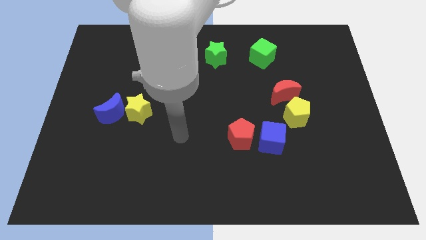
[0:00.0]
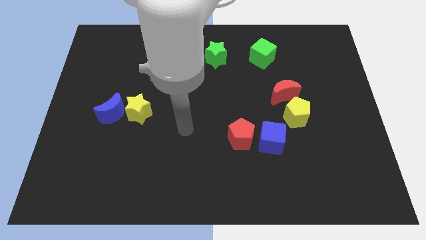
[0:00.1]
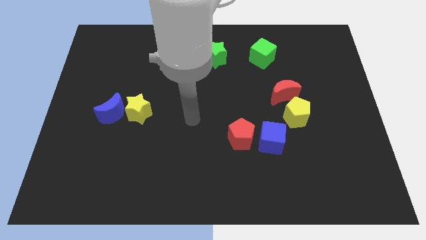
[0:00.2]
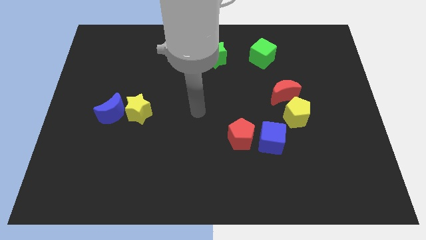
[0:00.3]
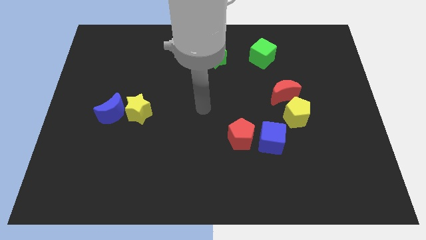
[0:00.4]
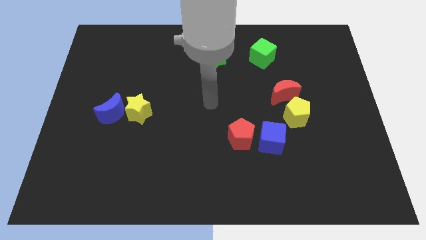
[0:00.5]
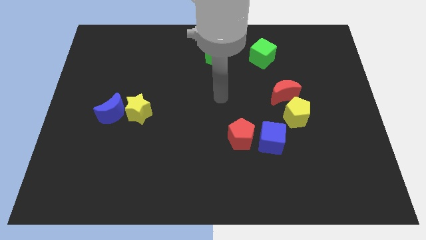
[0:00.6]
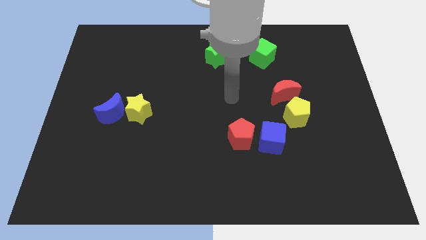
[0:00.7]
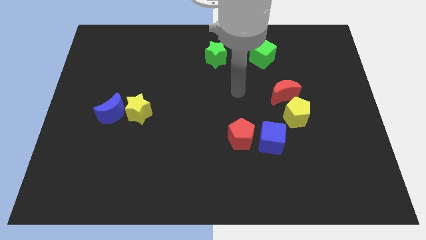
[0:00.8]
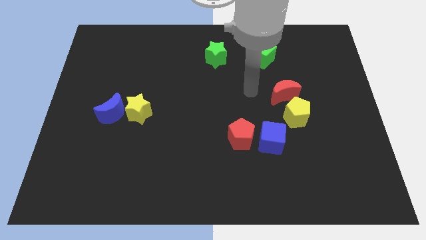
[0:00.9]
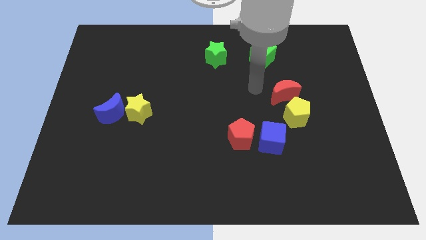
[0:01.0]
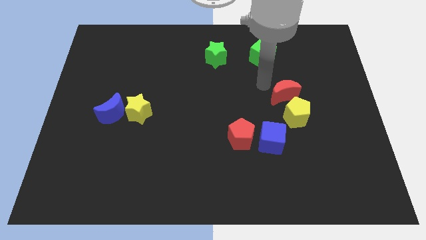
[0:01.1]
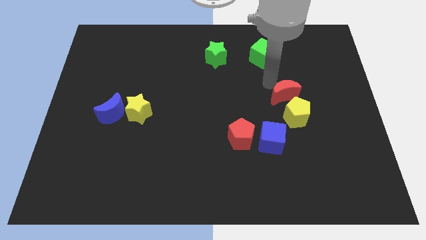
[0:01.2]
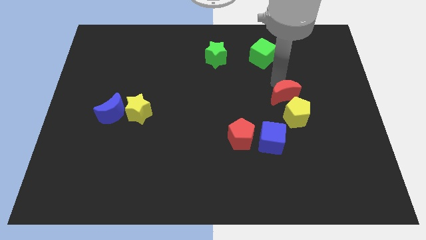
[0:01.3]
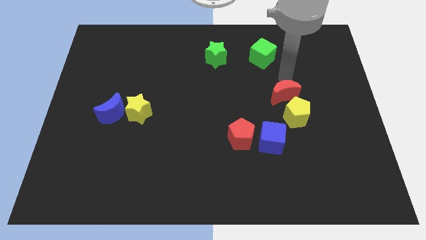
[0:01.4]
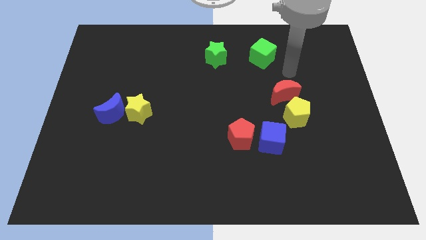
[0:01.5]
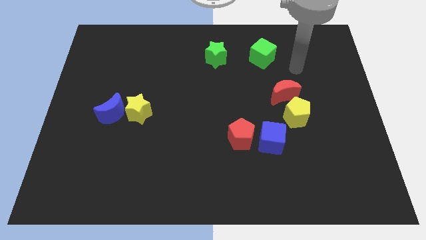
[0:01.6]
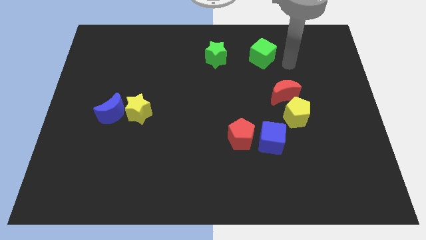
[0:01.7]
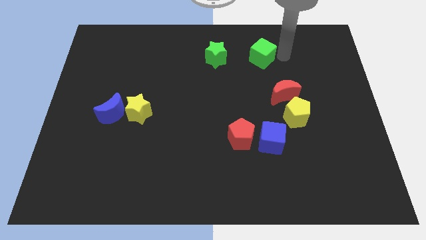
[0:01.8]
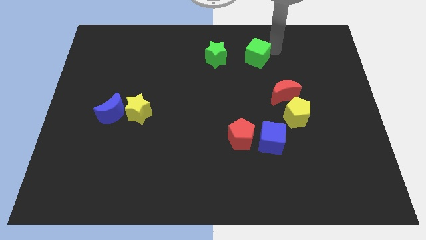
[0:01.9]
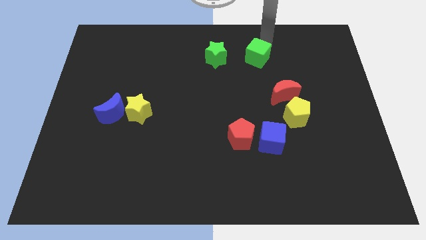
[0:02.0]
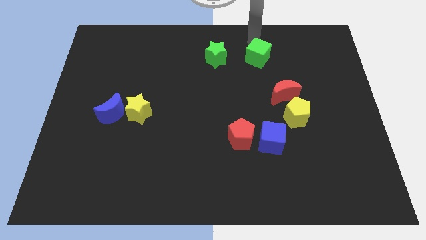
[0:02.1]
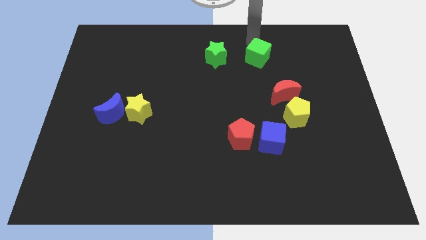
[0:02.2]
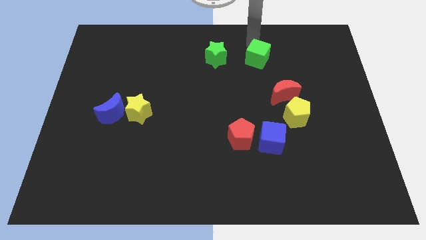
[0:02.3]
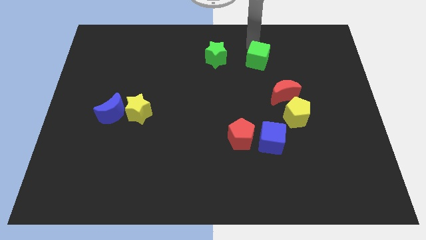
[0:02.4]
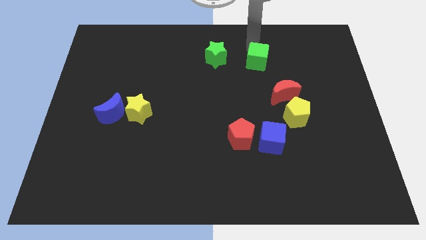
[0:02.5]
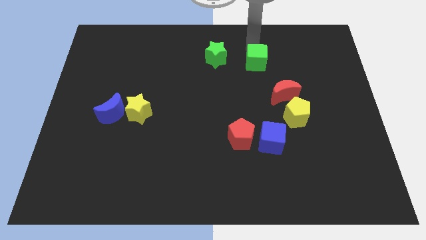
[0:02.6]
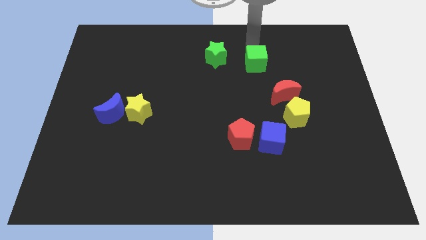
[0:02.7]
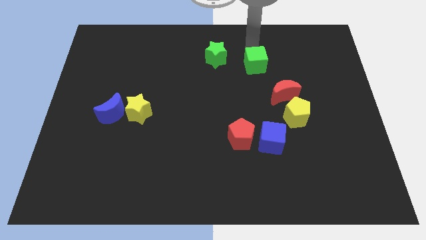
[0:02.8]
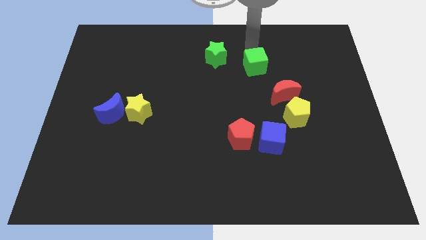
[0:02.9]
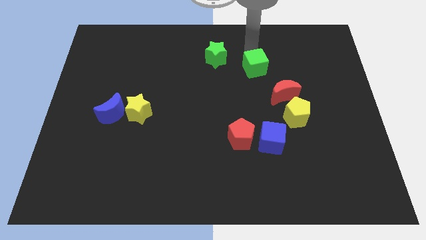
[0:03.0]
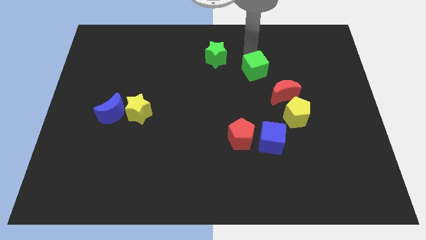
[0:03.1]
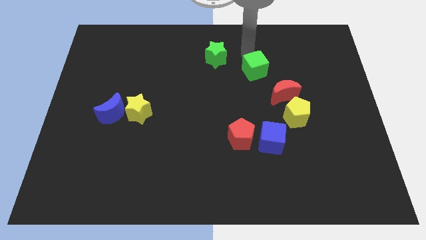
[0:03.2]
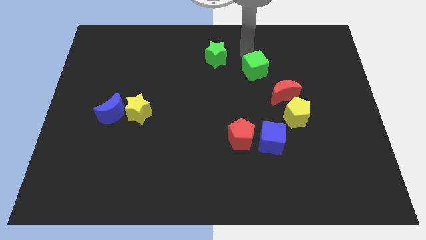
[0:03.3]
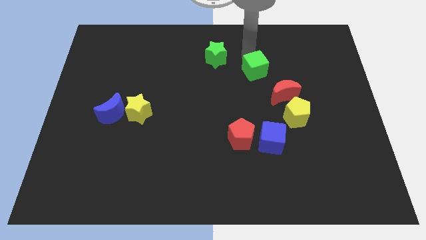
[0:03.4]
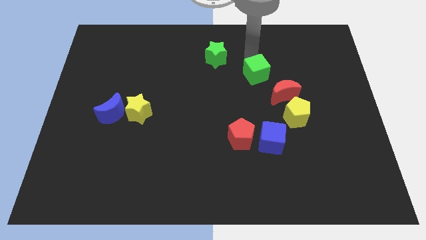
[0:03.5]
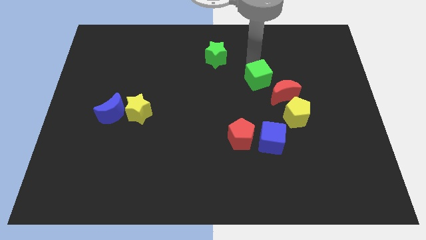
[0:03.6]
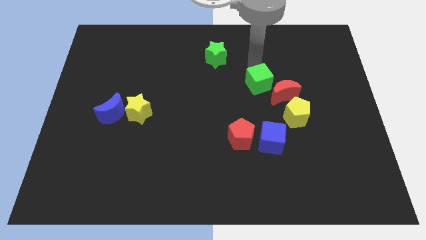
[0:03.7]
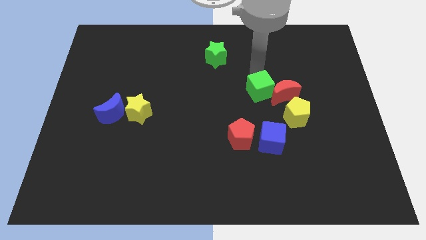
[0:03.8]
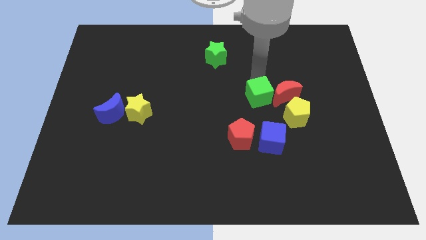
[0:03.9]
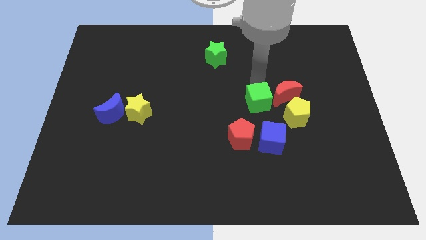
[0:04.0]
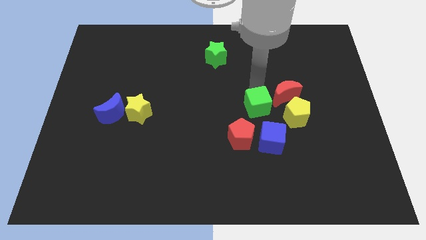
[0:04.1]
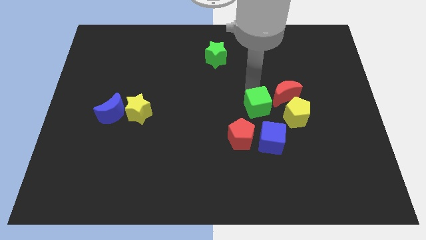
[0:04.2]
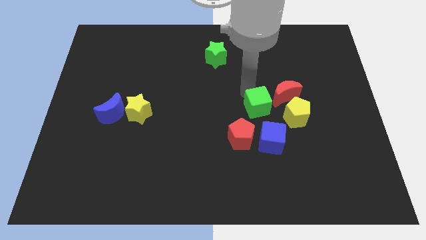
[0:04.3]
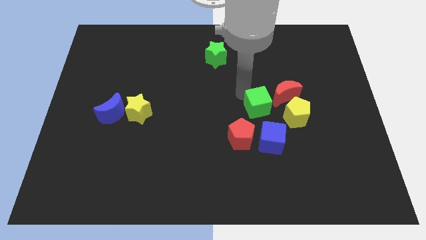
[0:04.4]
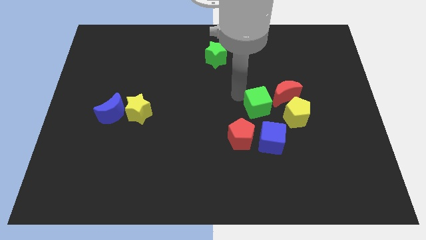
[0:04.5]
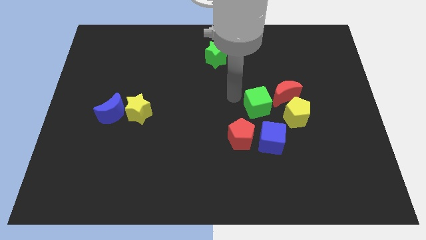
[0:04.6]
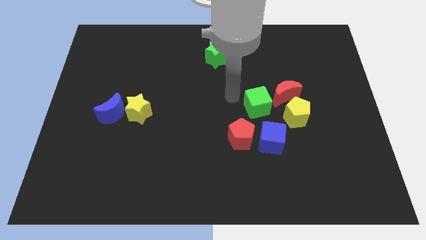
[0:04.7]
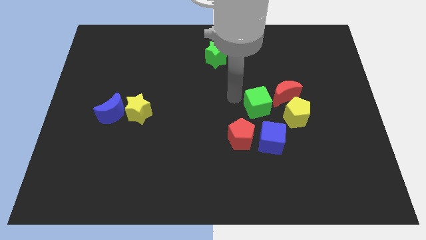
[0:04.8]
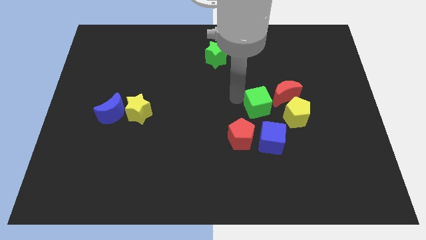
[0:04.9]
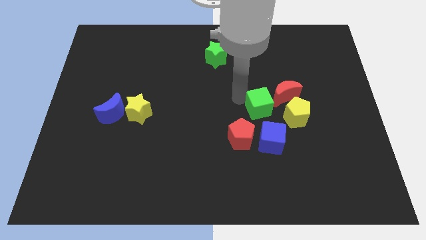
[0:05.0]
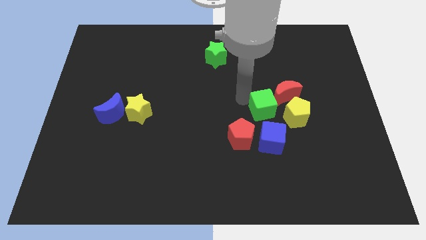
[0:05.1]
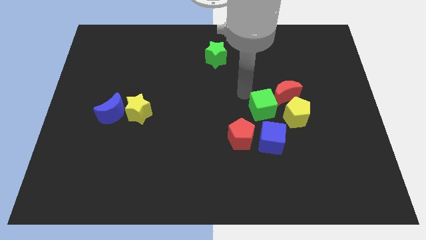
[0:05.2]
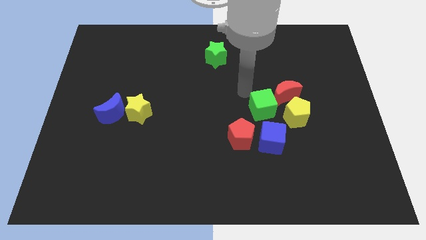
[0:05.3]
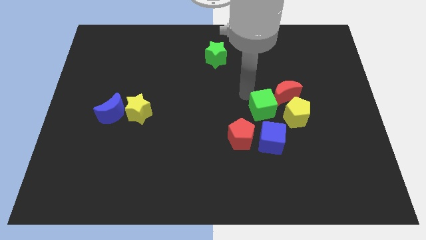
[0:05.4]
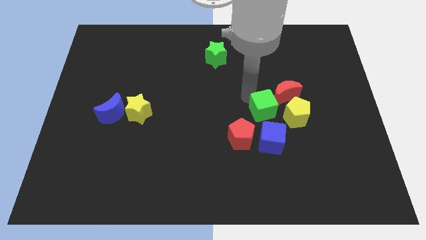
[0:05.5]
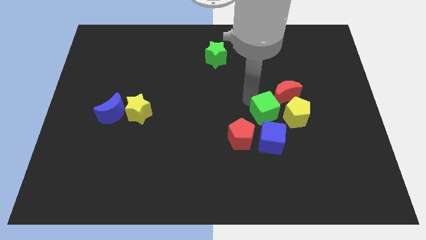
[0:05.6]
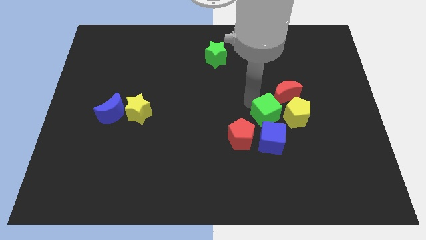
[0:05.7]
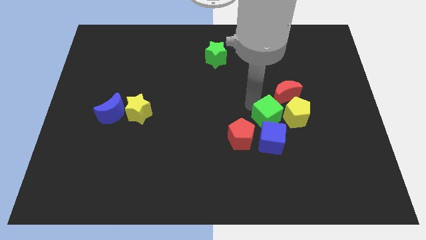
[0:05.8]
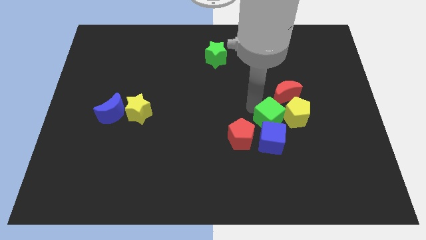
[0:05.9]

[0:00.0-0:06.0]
move the green cube down

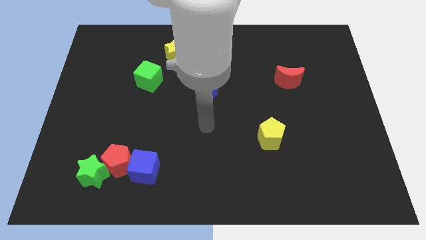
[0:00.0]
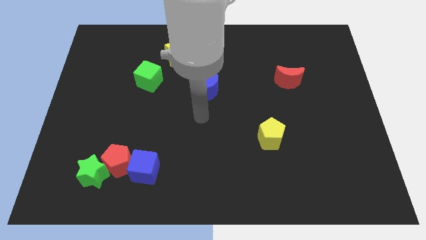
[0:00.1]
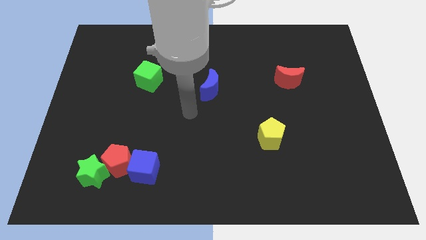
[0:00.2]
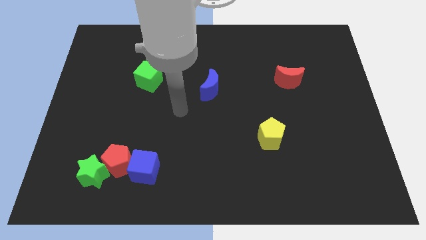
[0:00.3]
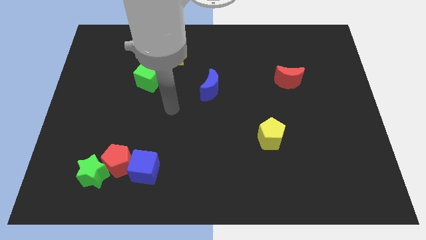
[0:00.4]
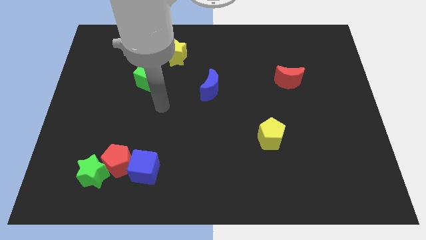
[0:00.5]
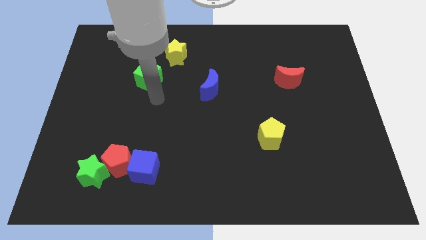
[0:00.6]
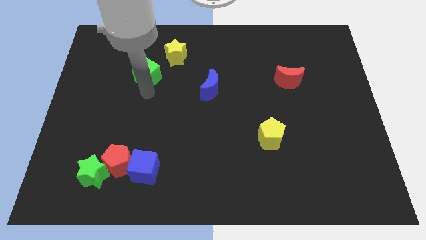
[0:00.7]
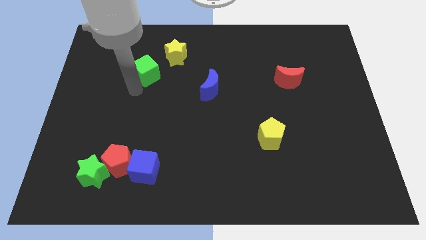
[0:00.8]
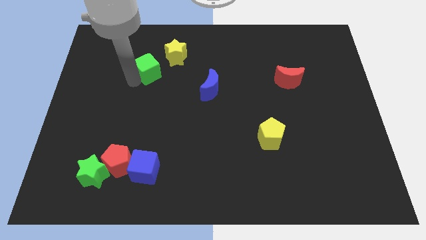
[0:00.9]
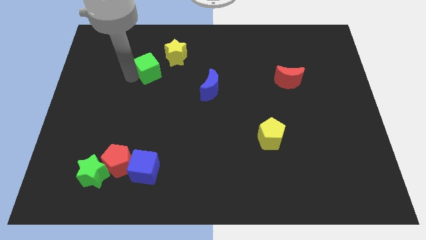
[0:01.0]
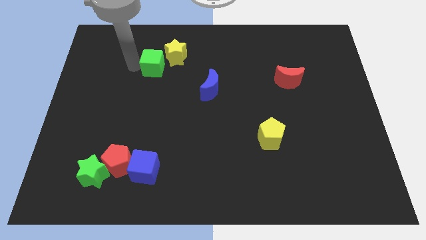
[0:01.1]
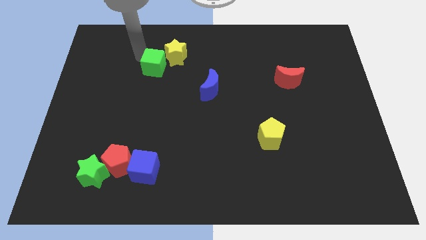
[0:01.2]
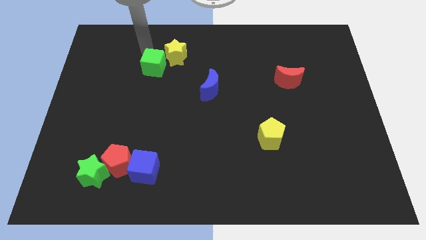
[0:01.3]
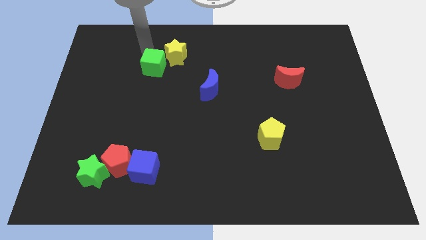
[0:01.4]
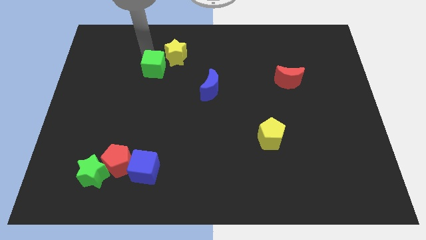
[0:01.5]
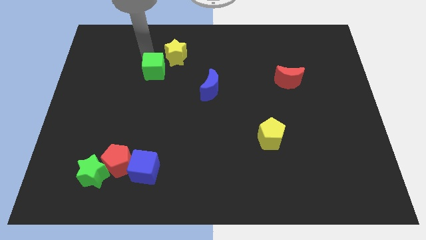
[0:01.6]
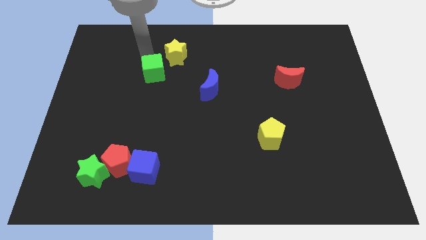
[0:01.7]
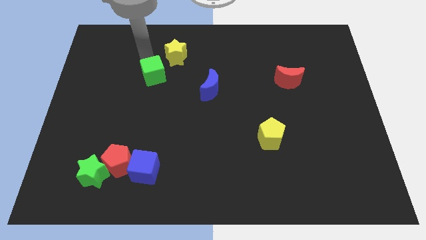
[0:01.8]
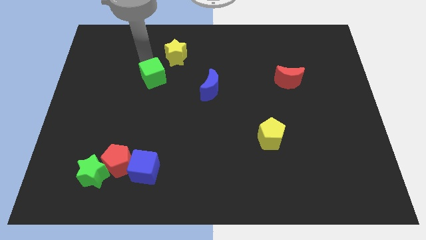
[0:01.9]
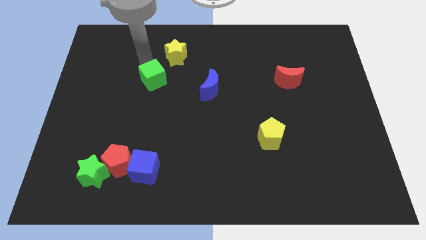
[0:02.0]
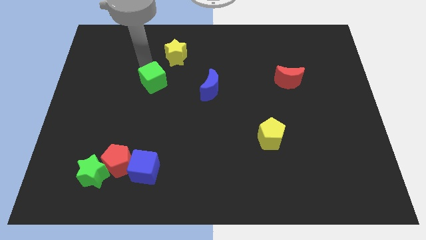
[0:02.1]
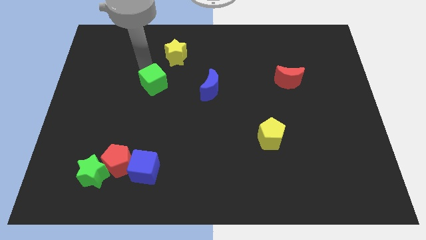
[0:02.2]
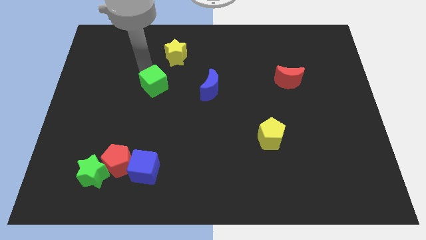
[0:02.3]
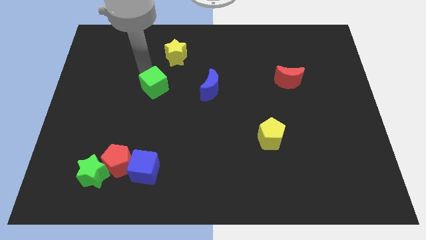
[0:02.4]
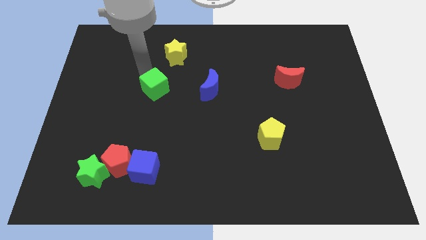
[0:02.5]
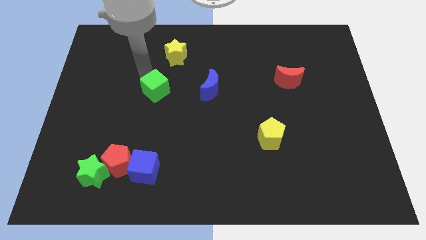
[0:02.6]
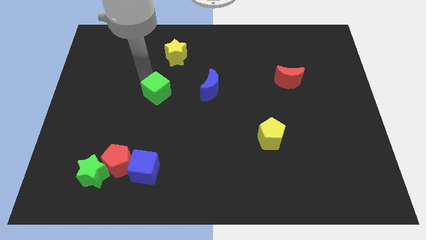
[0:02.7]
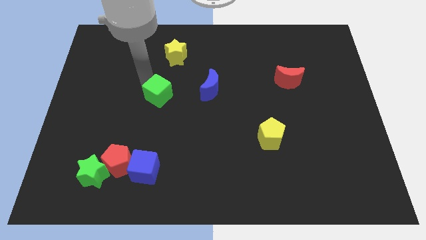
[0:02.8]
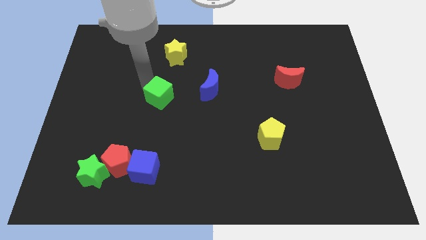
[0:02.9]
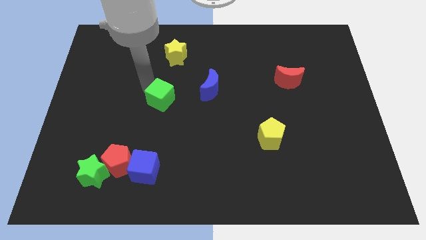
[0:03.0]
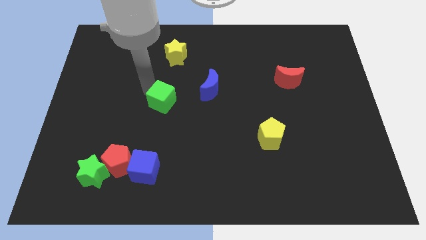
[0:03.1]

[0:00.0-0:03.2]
move the green cube downwards and then right a bit
